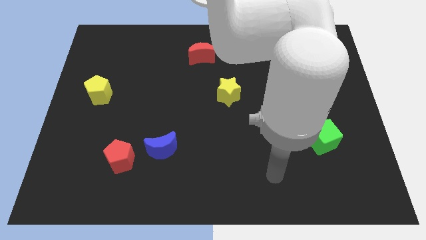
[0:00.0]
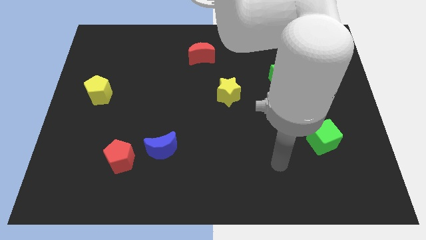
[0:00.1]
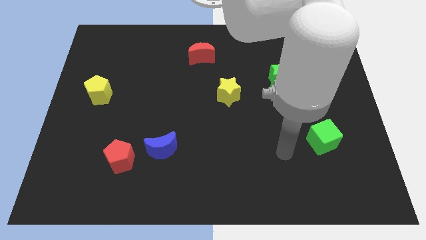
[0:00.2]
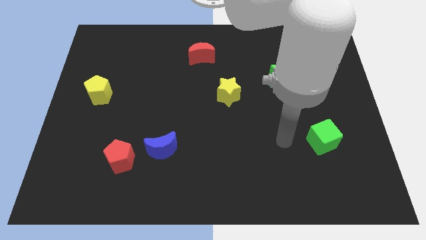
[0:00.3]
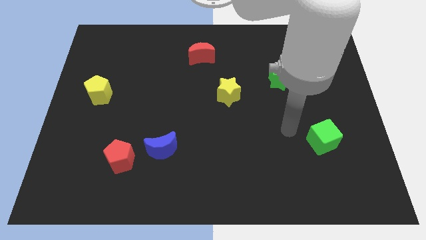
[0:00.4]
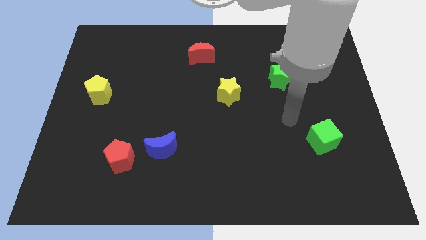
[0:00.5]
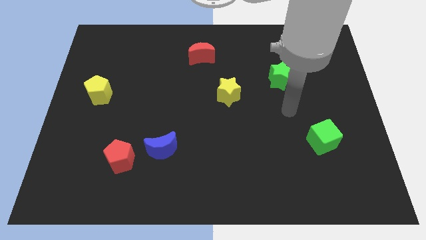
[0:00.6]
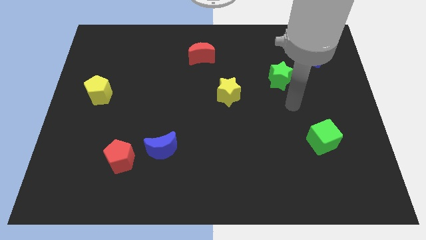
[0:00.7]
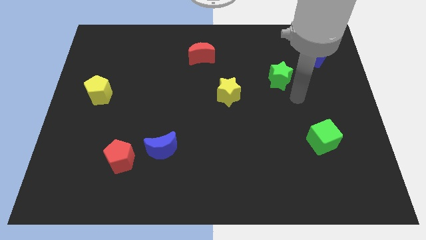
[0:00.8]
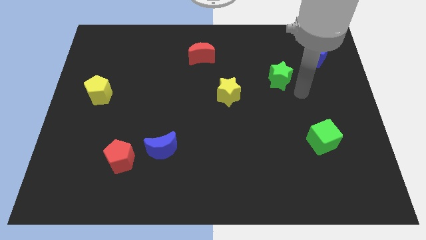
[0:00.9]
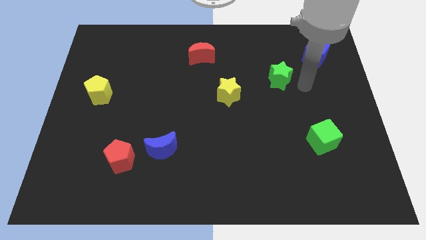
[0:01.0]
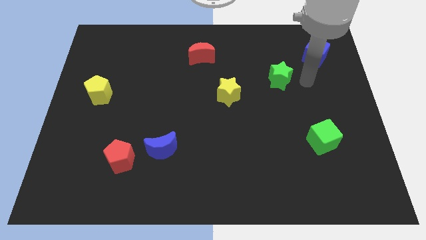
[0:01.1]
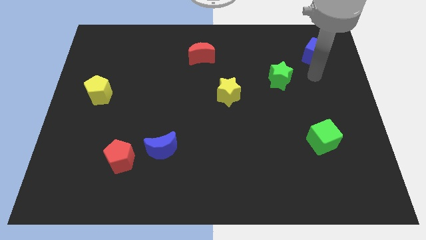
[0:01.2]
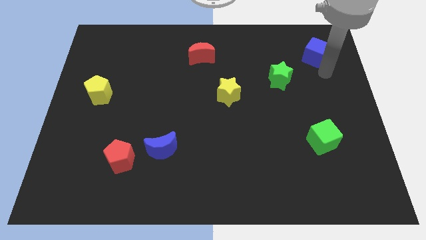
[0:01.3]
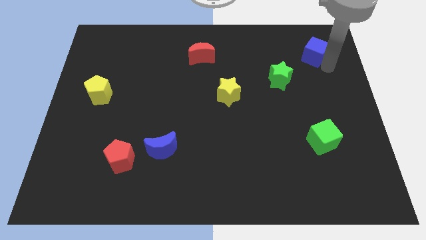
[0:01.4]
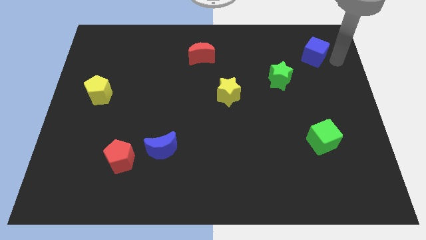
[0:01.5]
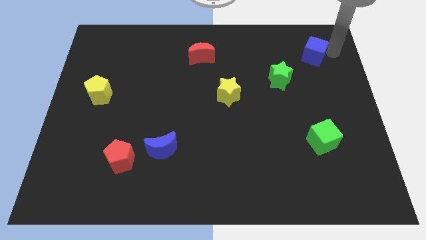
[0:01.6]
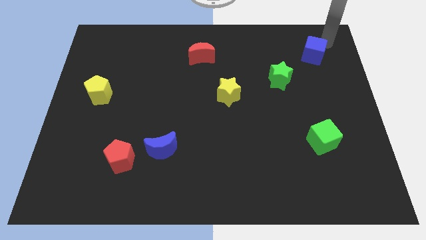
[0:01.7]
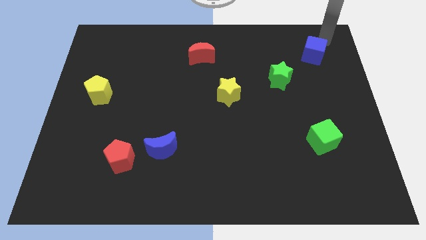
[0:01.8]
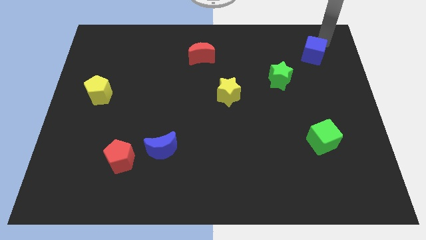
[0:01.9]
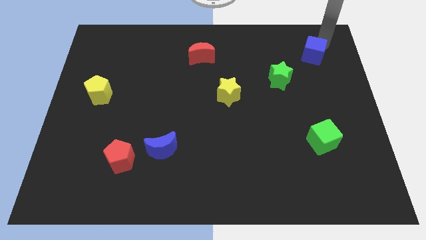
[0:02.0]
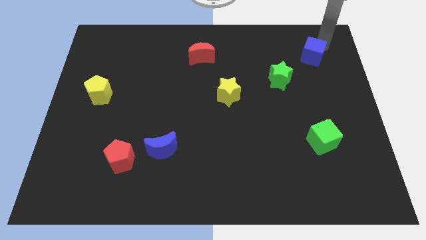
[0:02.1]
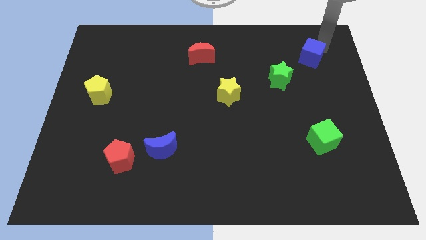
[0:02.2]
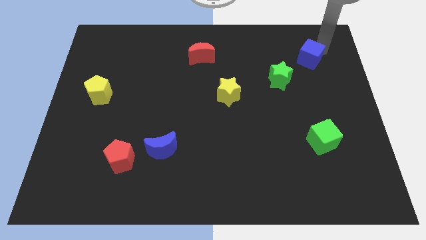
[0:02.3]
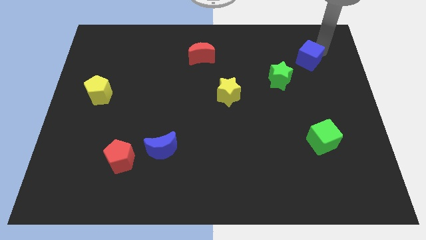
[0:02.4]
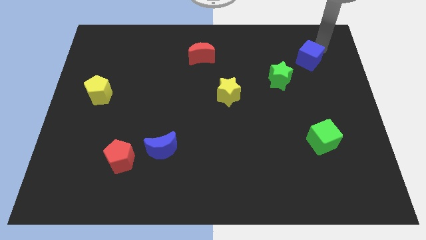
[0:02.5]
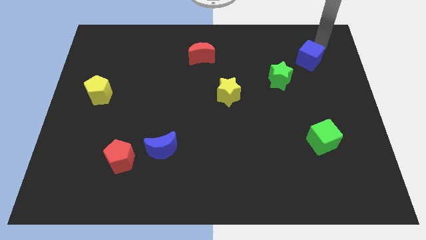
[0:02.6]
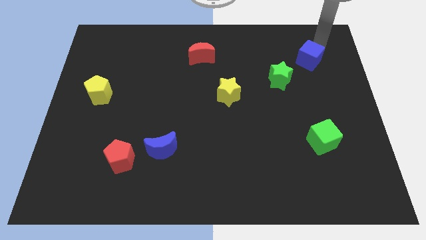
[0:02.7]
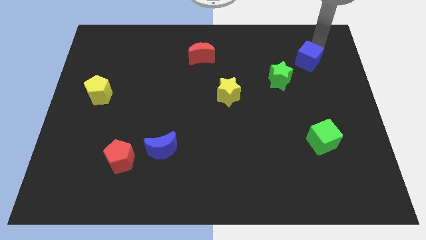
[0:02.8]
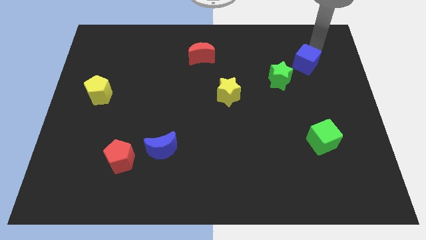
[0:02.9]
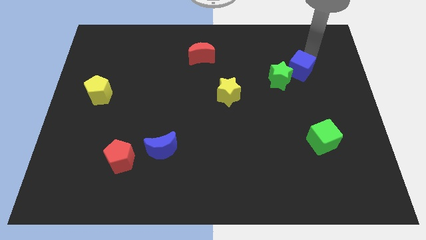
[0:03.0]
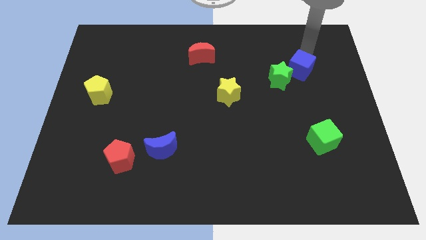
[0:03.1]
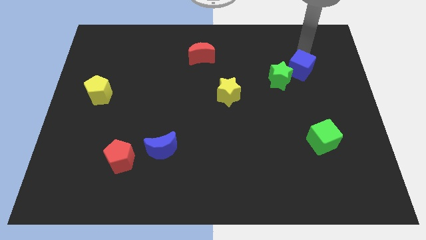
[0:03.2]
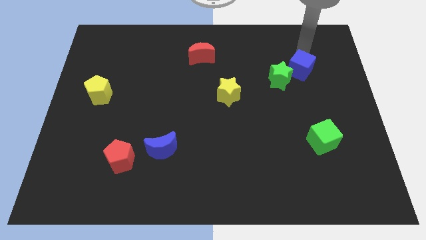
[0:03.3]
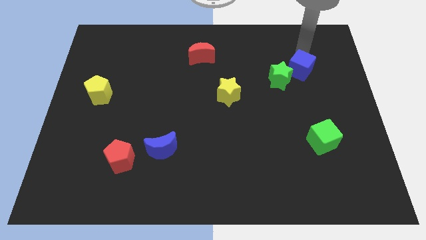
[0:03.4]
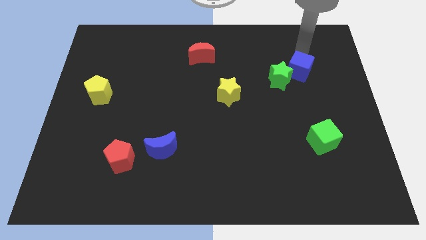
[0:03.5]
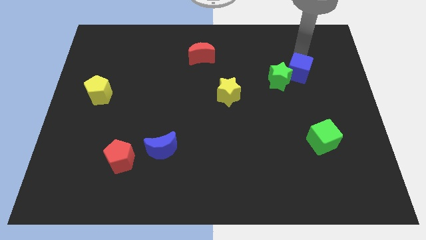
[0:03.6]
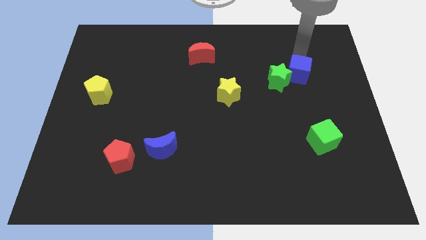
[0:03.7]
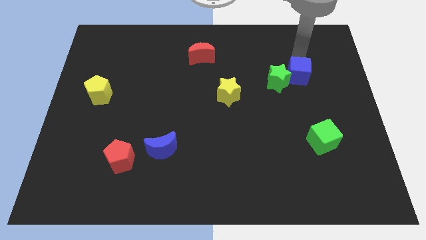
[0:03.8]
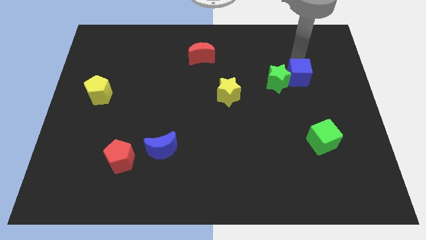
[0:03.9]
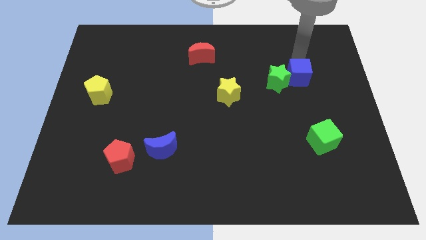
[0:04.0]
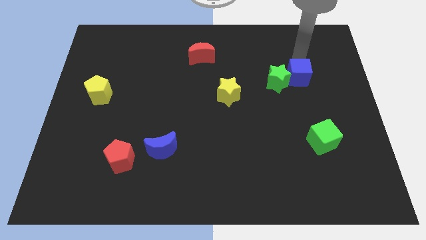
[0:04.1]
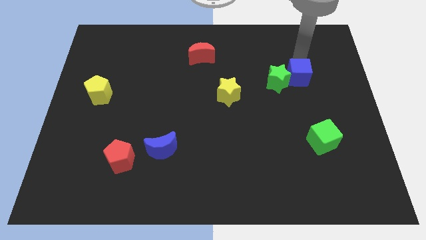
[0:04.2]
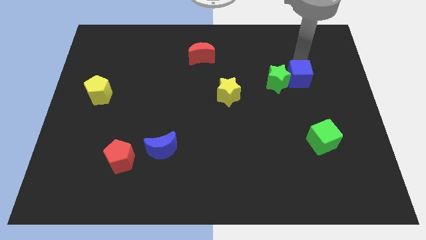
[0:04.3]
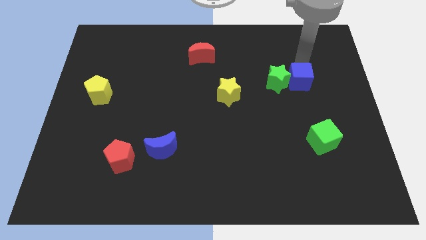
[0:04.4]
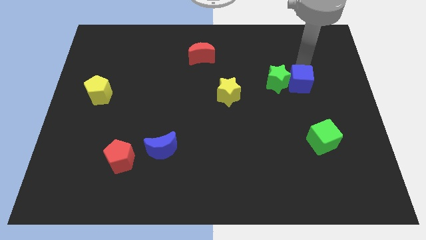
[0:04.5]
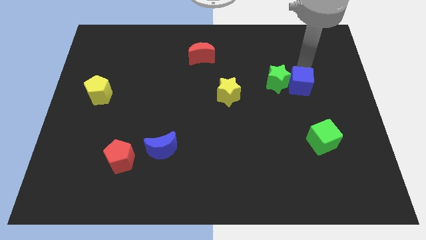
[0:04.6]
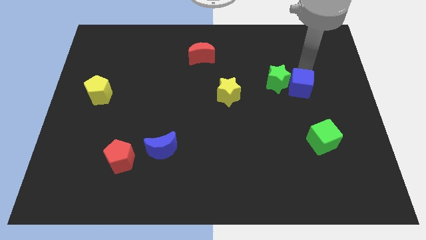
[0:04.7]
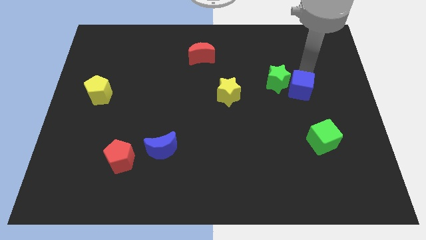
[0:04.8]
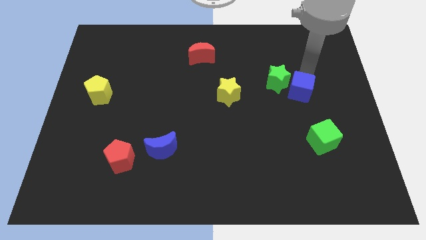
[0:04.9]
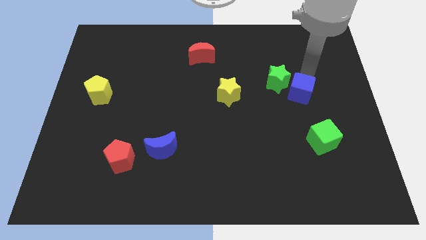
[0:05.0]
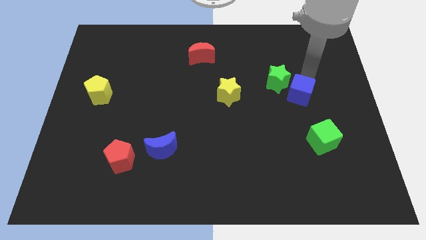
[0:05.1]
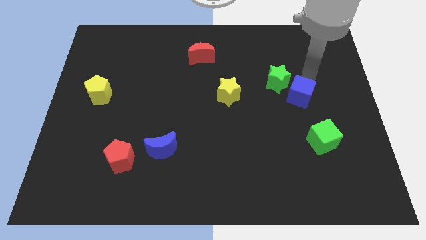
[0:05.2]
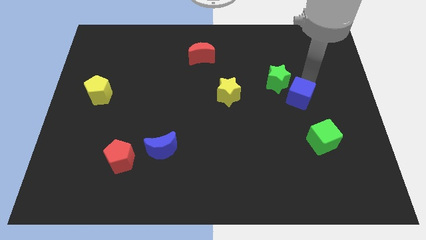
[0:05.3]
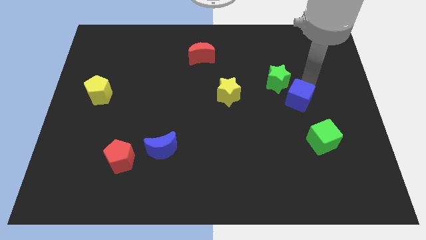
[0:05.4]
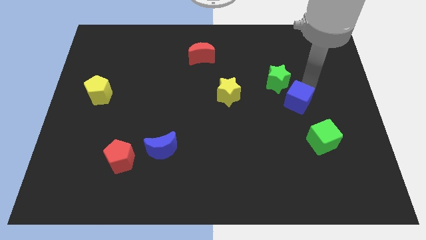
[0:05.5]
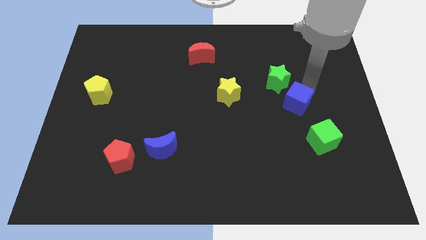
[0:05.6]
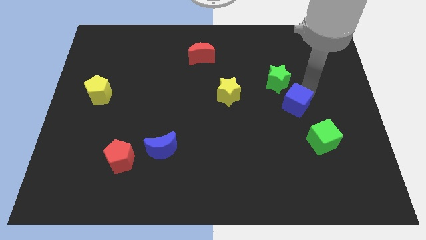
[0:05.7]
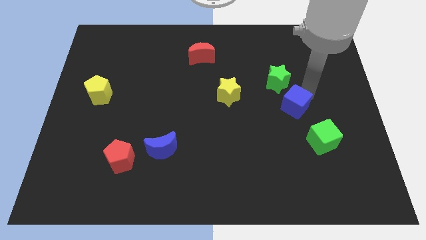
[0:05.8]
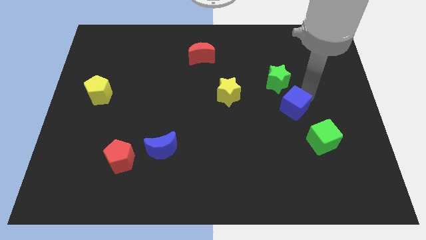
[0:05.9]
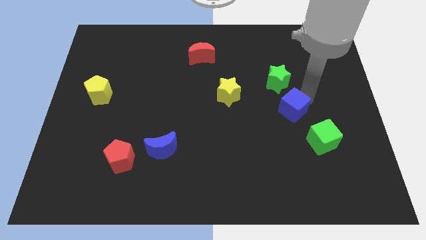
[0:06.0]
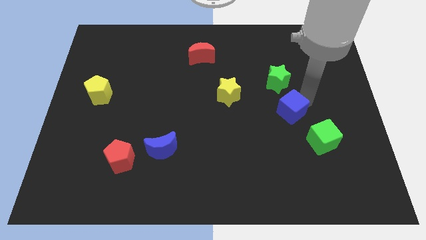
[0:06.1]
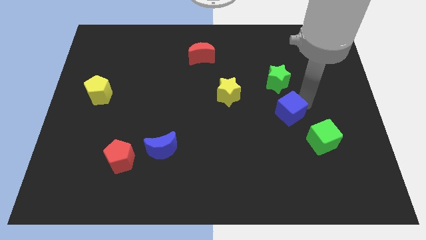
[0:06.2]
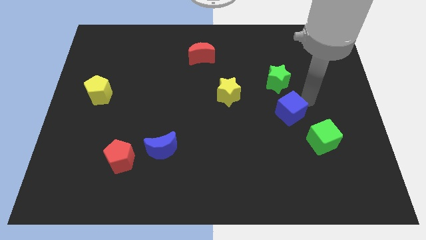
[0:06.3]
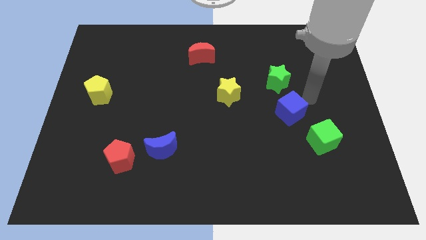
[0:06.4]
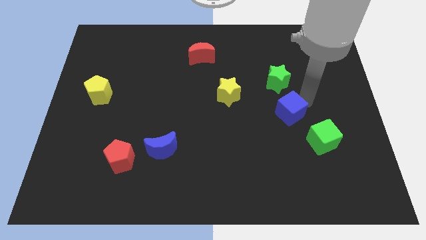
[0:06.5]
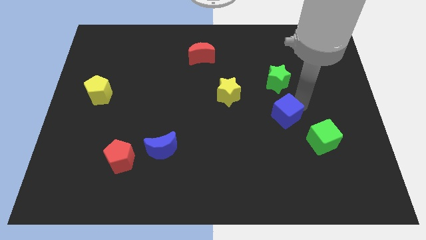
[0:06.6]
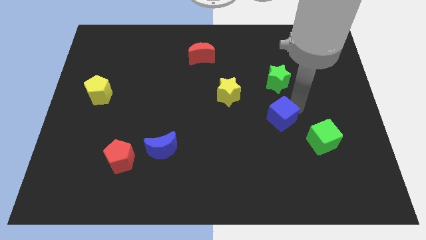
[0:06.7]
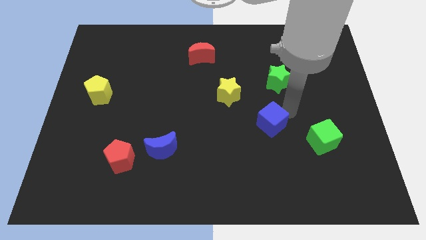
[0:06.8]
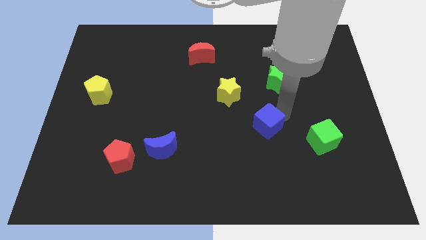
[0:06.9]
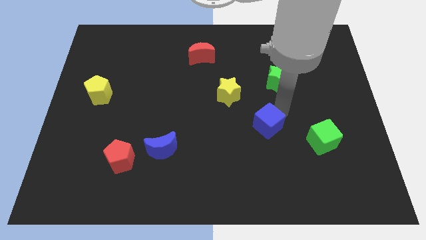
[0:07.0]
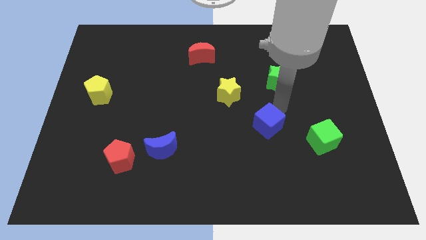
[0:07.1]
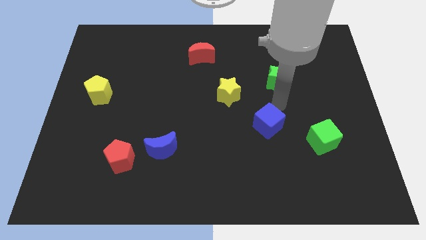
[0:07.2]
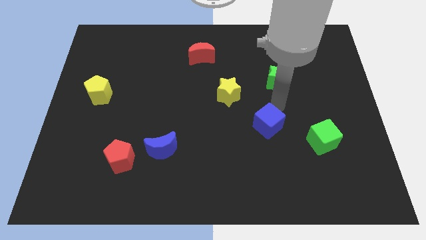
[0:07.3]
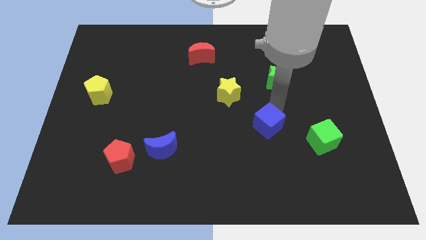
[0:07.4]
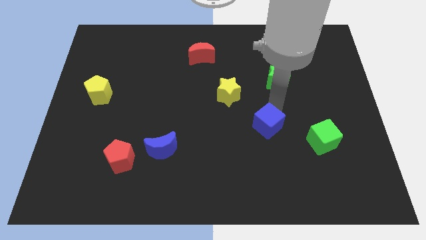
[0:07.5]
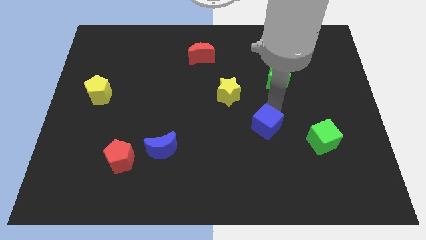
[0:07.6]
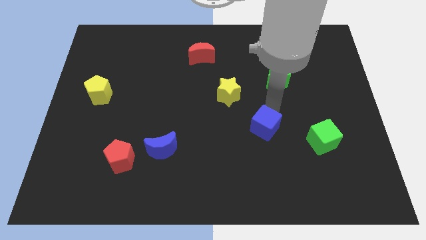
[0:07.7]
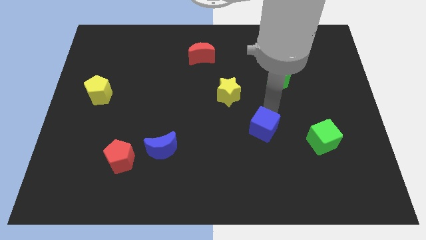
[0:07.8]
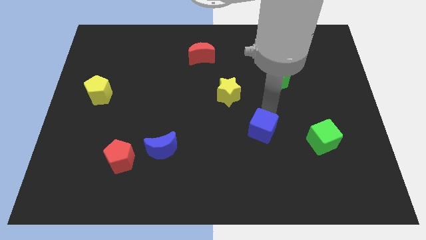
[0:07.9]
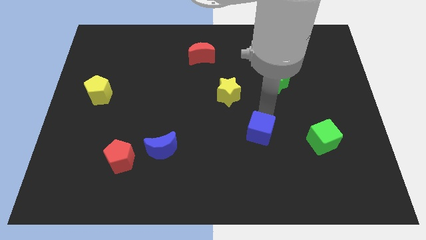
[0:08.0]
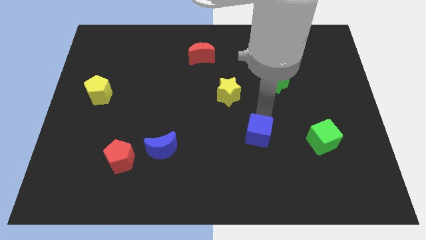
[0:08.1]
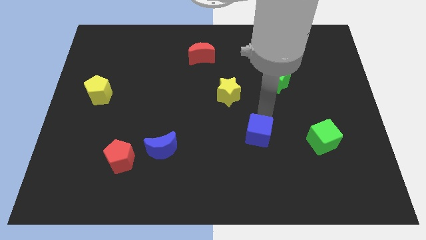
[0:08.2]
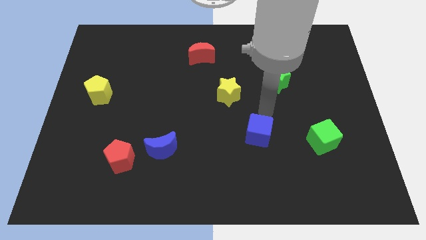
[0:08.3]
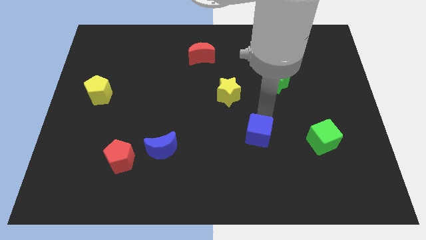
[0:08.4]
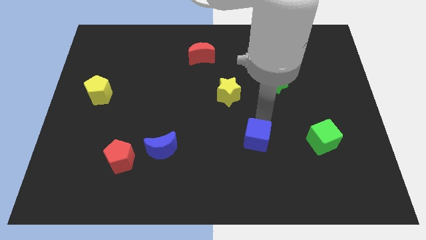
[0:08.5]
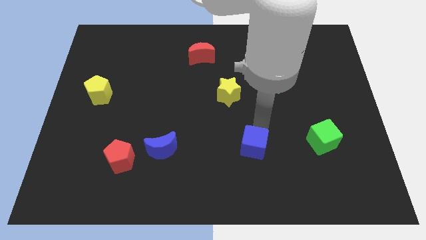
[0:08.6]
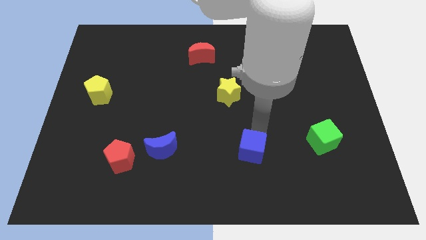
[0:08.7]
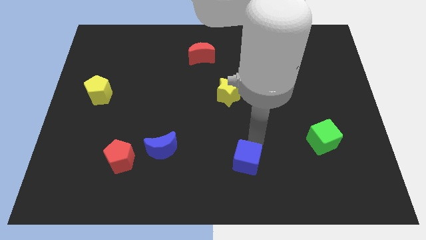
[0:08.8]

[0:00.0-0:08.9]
slide the blue cube to the bottom
